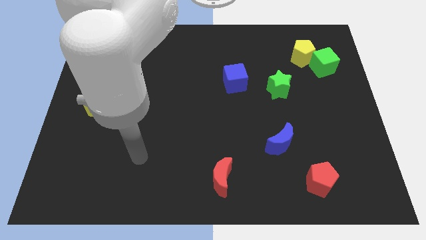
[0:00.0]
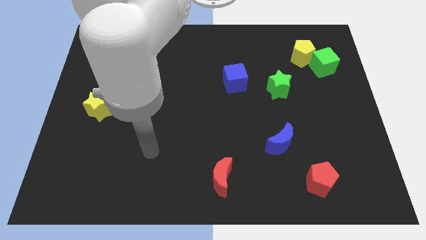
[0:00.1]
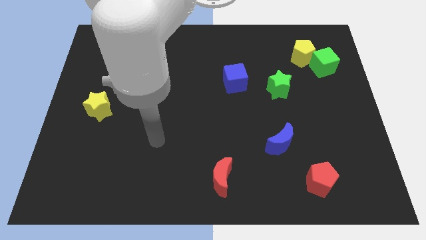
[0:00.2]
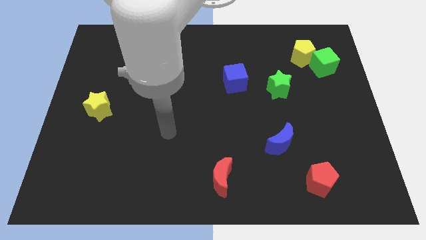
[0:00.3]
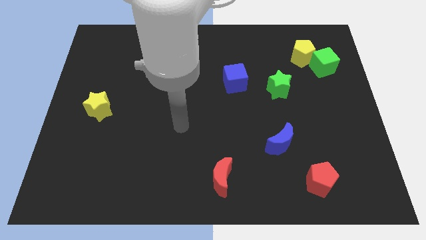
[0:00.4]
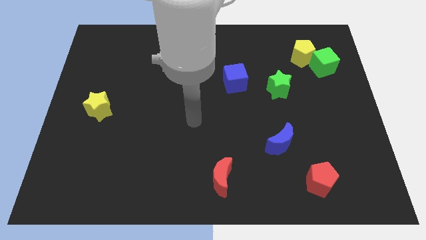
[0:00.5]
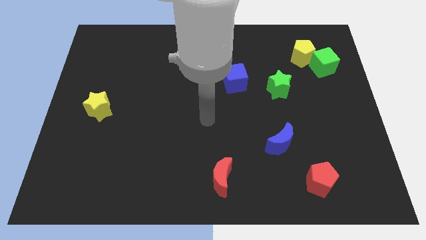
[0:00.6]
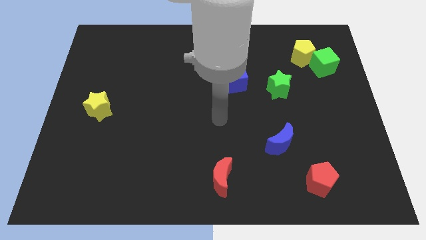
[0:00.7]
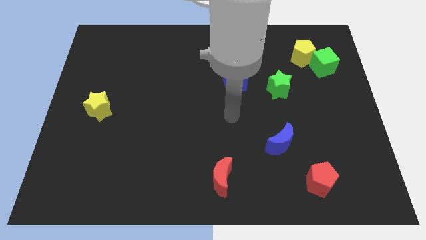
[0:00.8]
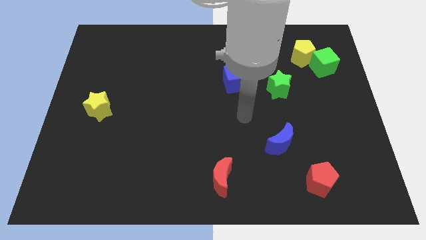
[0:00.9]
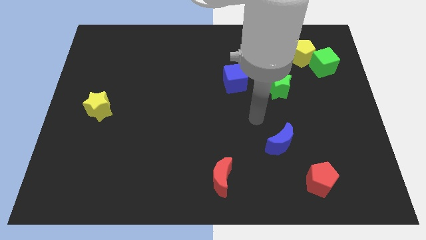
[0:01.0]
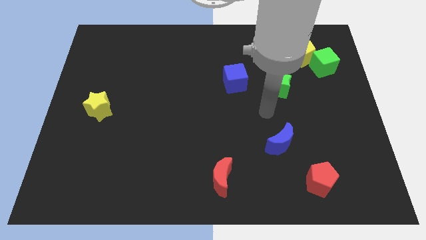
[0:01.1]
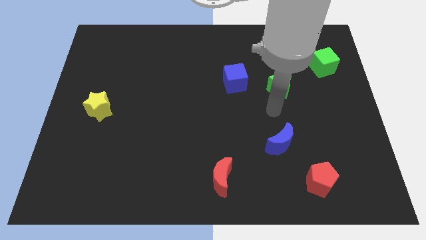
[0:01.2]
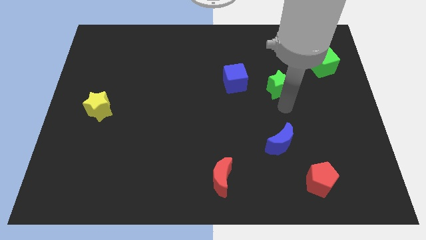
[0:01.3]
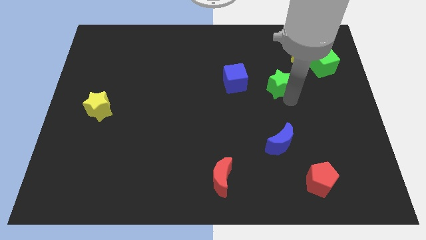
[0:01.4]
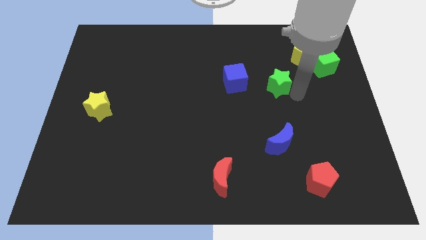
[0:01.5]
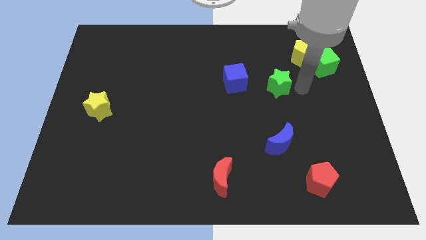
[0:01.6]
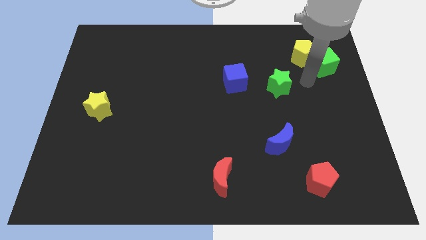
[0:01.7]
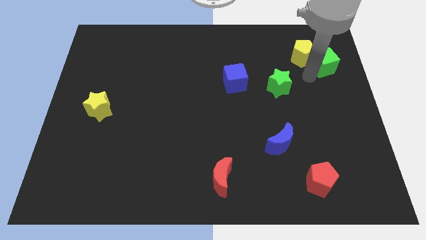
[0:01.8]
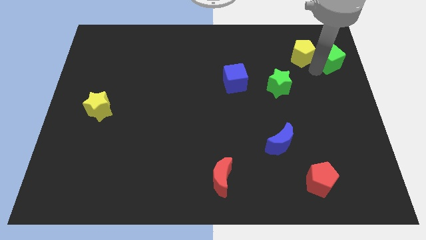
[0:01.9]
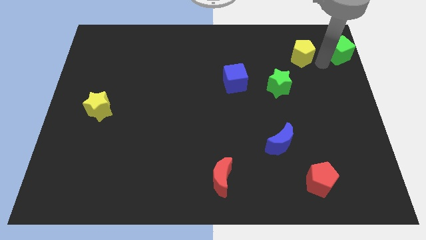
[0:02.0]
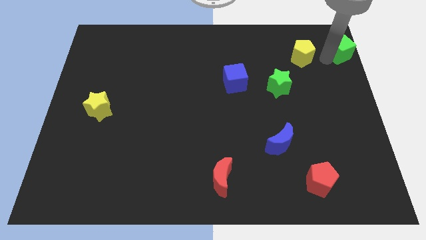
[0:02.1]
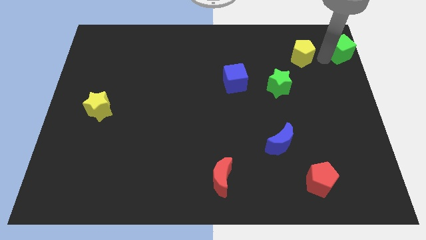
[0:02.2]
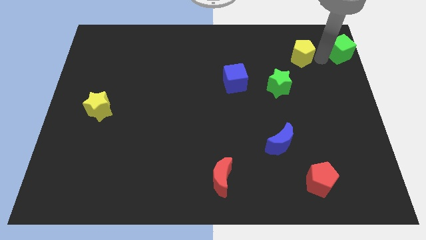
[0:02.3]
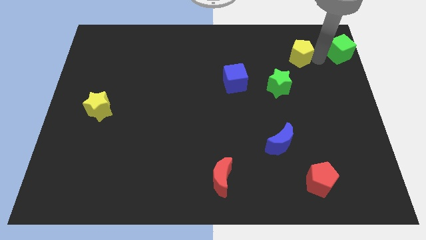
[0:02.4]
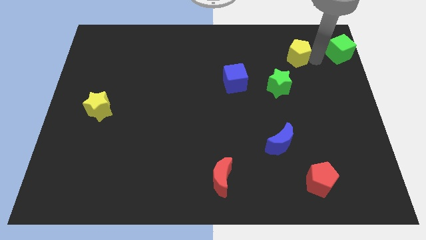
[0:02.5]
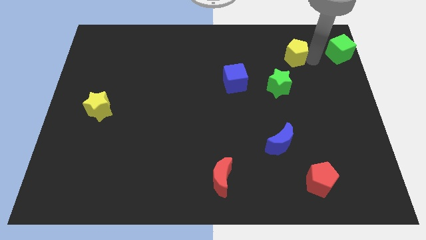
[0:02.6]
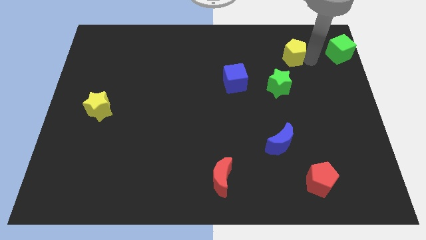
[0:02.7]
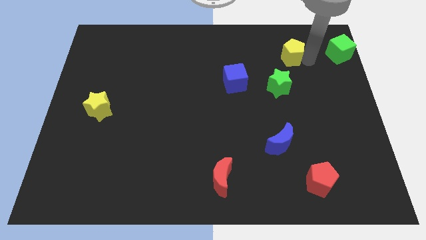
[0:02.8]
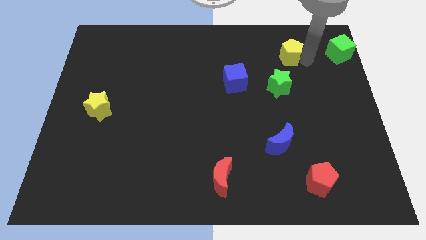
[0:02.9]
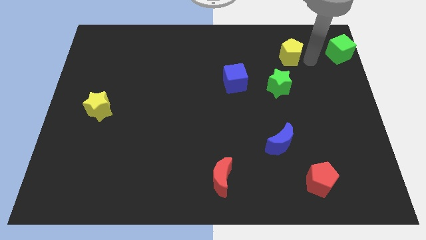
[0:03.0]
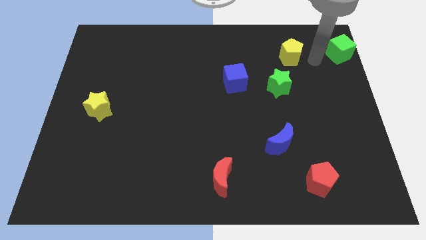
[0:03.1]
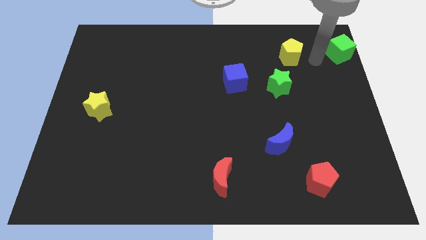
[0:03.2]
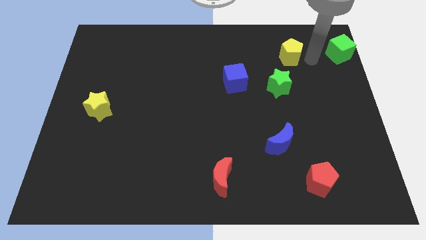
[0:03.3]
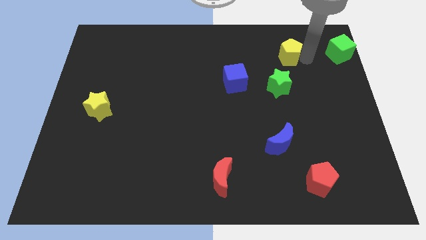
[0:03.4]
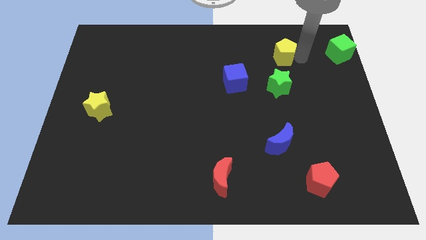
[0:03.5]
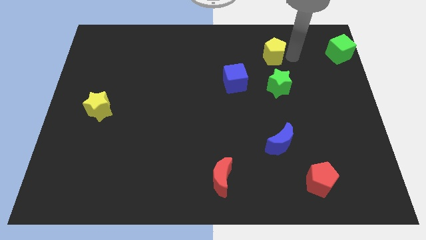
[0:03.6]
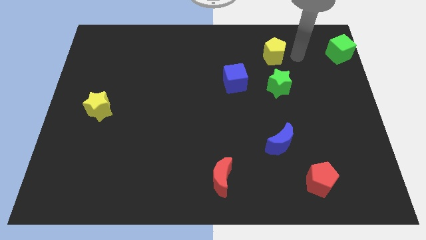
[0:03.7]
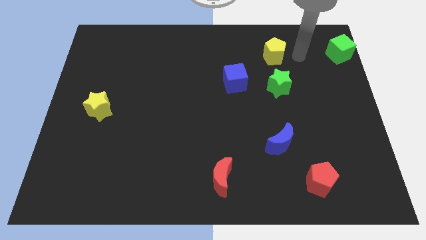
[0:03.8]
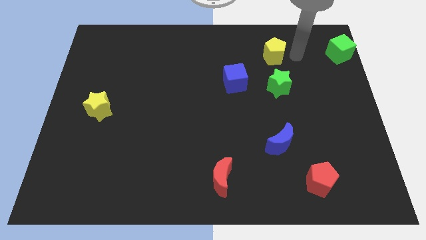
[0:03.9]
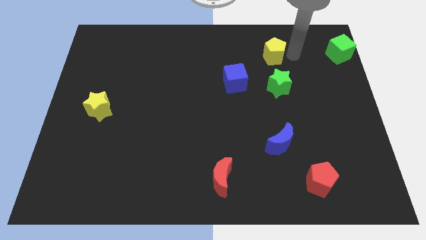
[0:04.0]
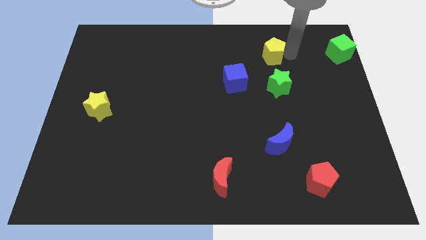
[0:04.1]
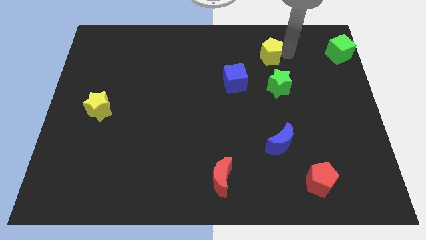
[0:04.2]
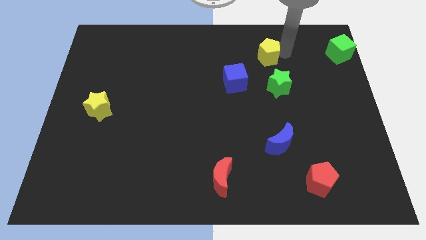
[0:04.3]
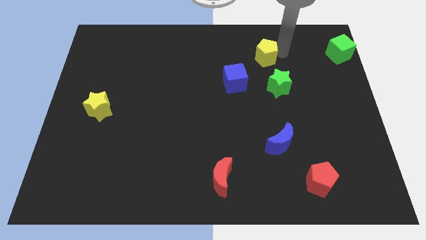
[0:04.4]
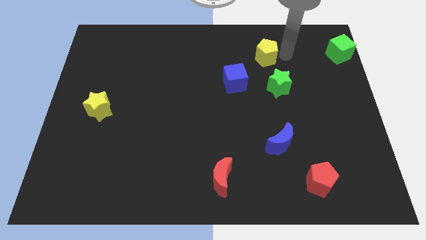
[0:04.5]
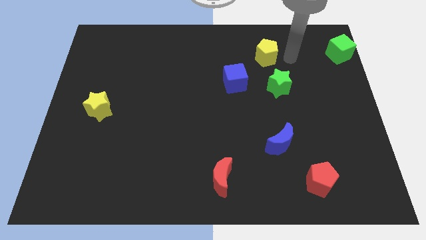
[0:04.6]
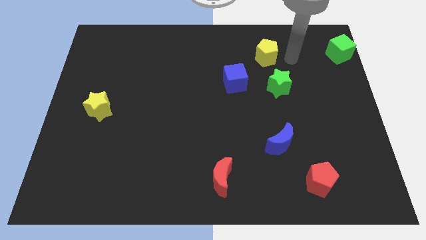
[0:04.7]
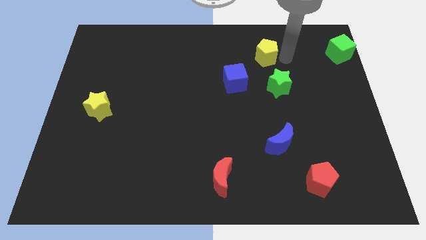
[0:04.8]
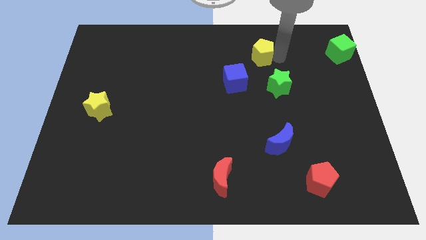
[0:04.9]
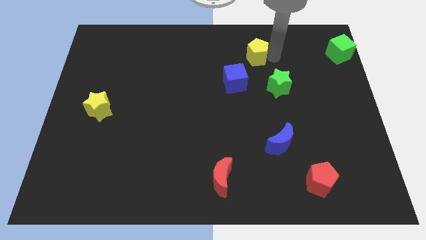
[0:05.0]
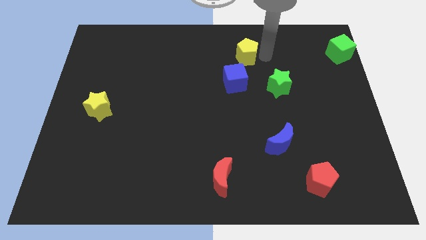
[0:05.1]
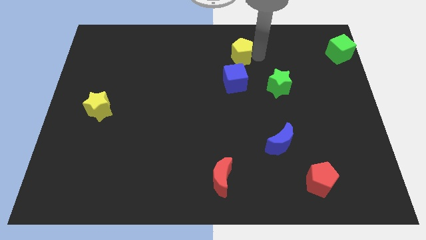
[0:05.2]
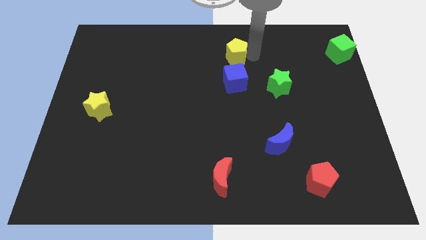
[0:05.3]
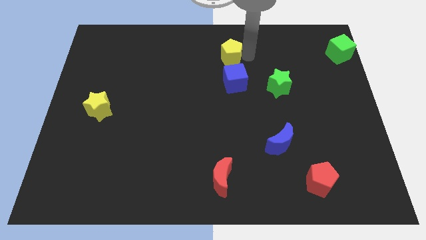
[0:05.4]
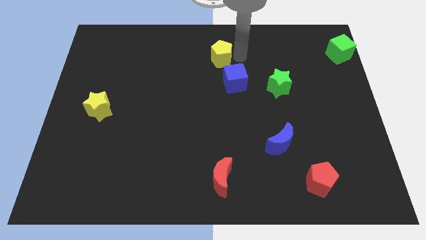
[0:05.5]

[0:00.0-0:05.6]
move the yellow pentagon left

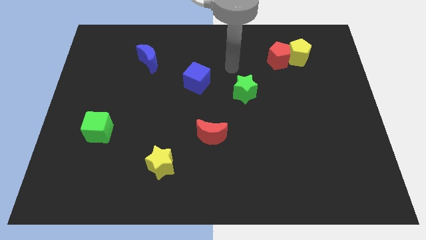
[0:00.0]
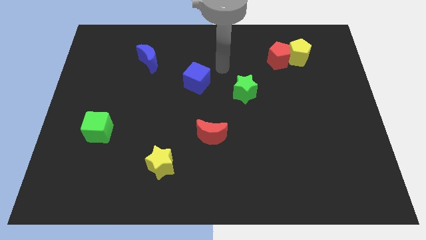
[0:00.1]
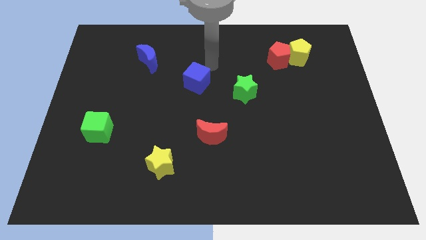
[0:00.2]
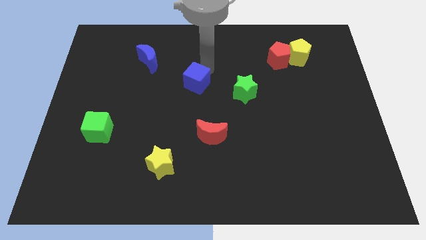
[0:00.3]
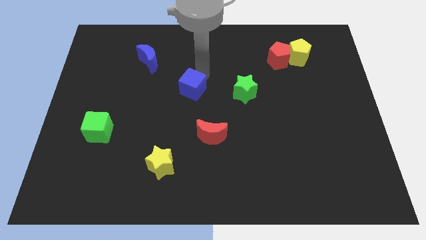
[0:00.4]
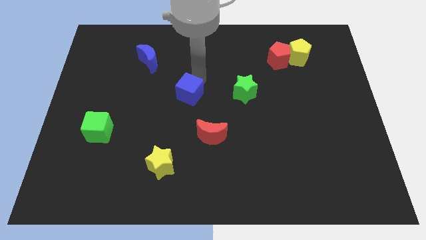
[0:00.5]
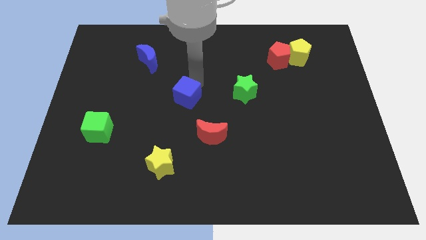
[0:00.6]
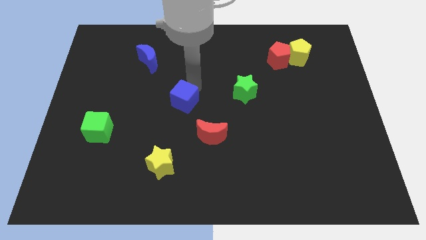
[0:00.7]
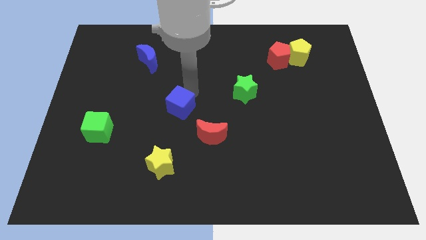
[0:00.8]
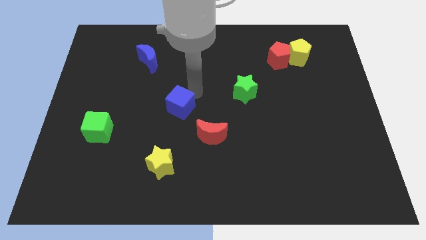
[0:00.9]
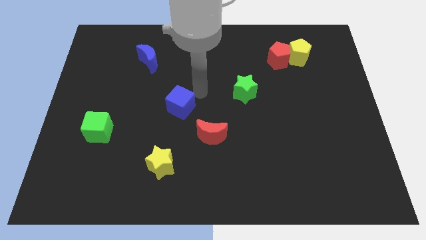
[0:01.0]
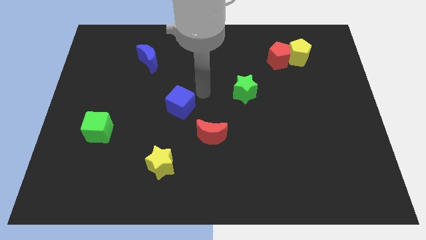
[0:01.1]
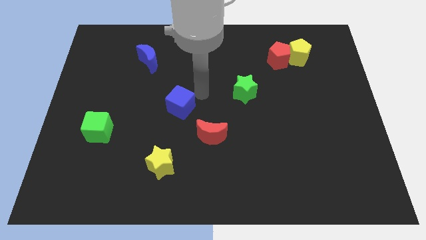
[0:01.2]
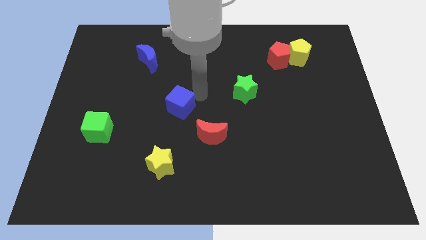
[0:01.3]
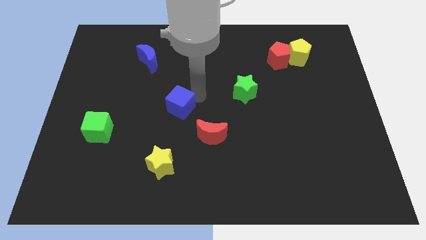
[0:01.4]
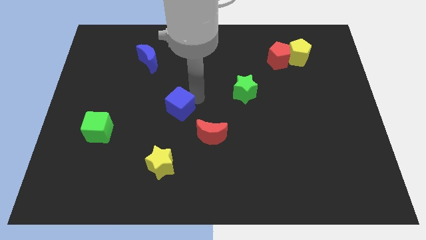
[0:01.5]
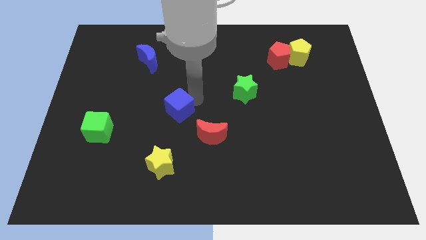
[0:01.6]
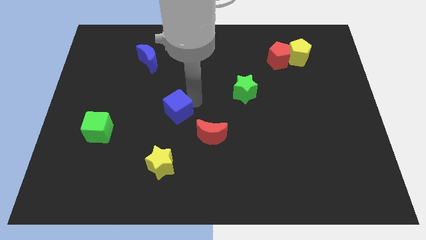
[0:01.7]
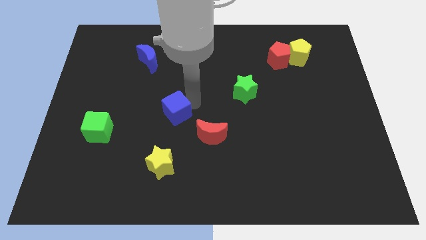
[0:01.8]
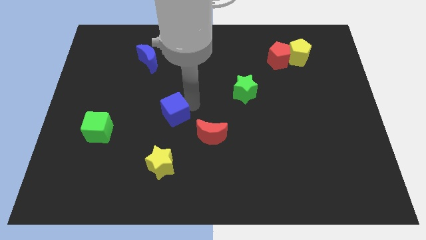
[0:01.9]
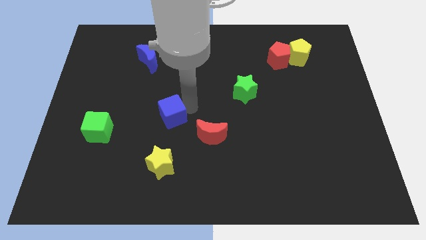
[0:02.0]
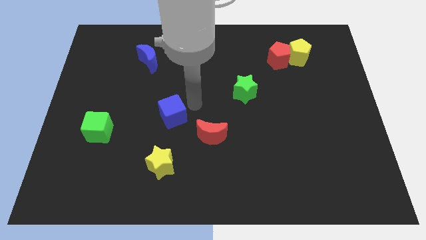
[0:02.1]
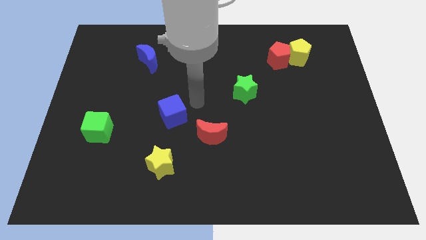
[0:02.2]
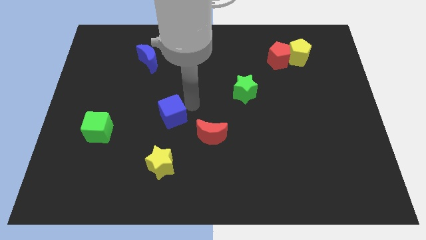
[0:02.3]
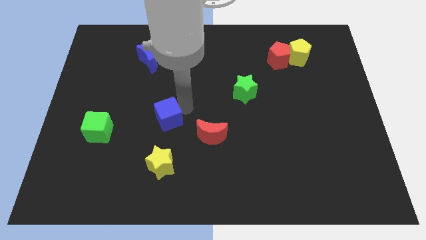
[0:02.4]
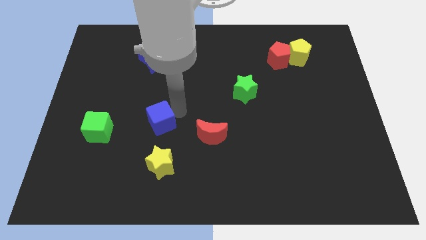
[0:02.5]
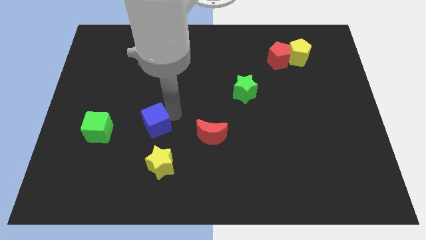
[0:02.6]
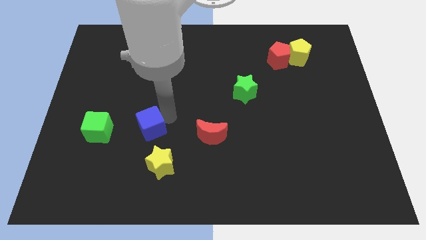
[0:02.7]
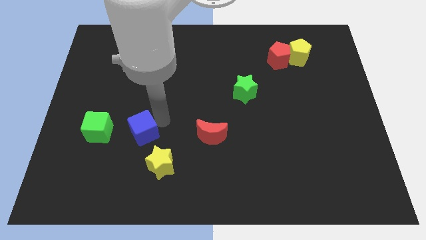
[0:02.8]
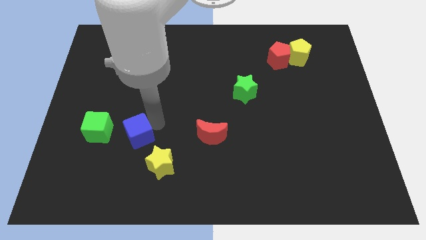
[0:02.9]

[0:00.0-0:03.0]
slide the blue cube downwards and then left
